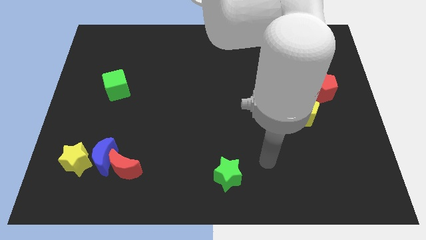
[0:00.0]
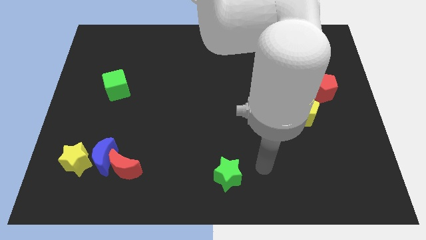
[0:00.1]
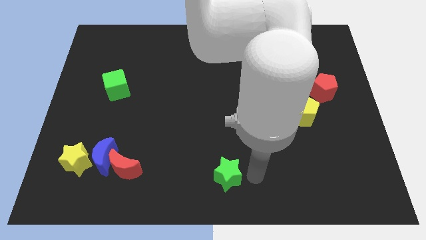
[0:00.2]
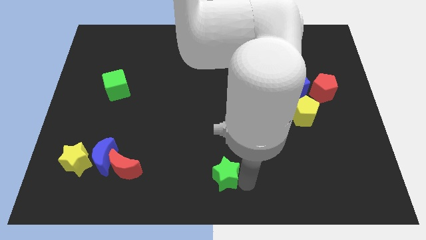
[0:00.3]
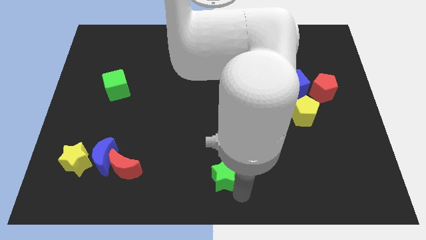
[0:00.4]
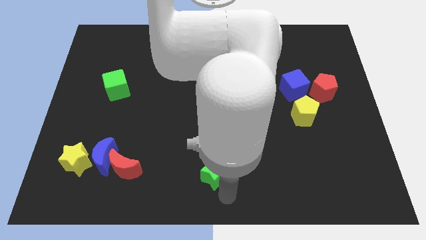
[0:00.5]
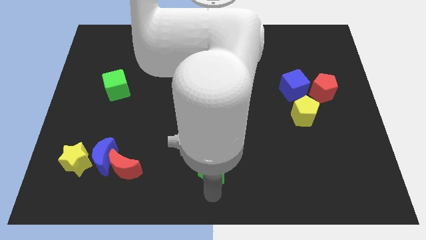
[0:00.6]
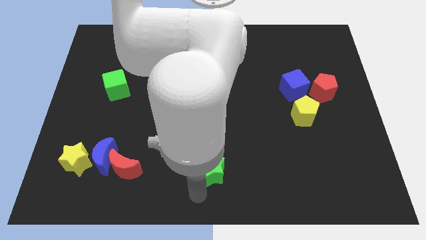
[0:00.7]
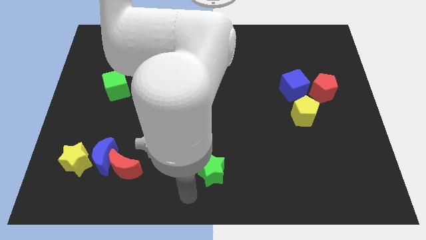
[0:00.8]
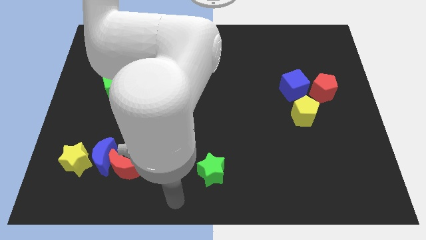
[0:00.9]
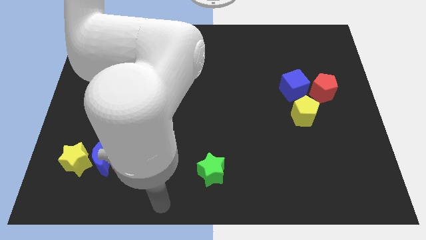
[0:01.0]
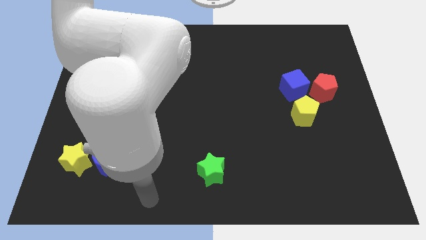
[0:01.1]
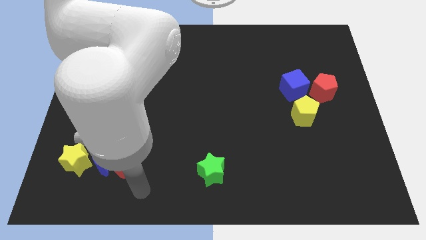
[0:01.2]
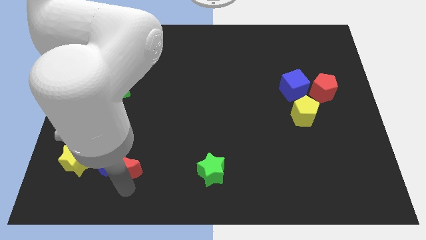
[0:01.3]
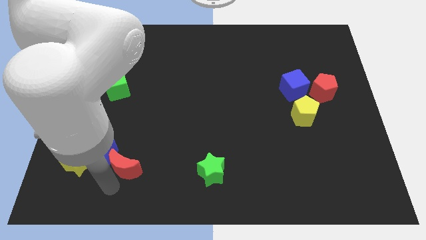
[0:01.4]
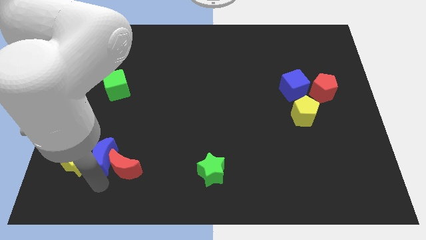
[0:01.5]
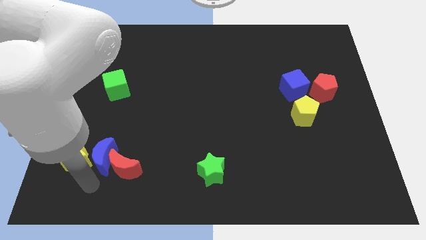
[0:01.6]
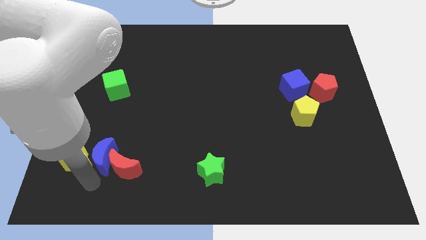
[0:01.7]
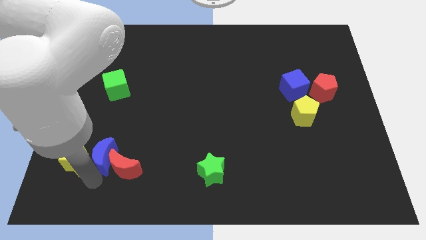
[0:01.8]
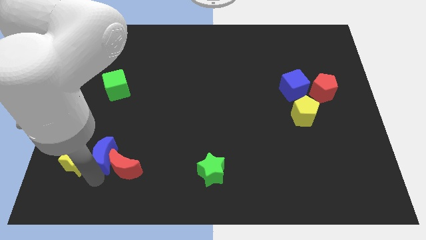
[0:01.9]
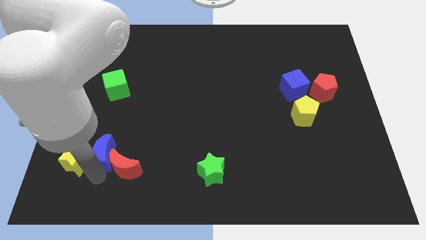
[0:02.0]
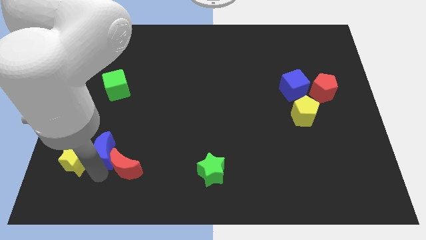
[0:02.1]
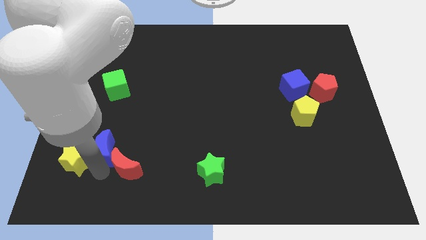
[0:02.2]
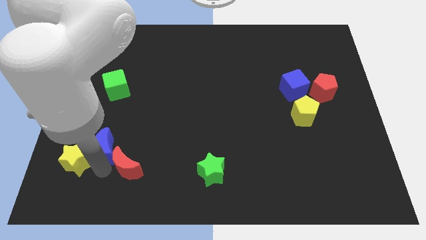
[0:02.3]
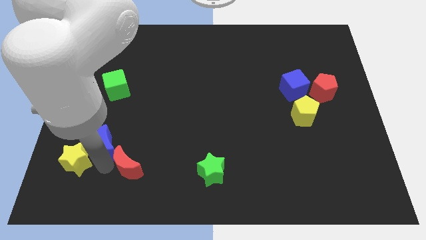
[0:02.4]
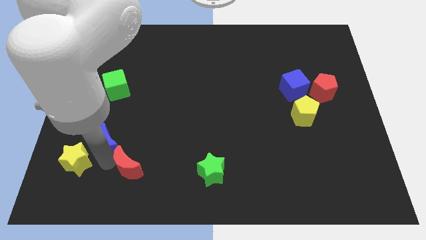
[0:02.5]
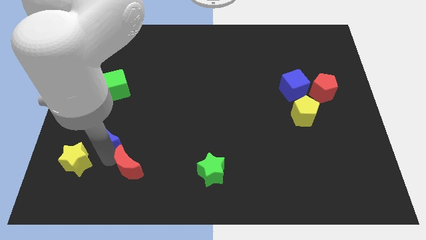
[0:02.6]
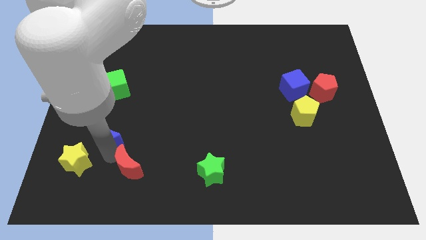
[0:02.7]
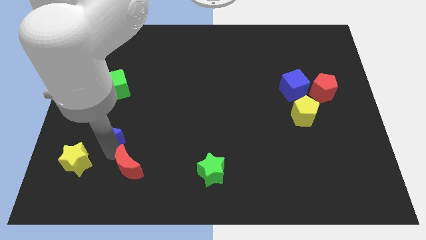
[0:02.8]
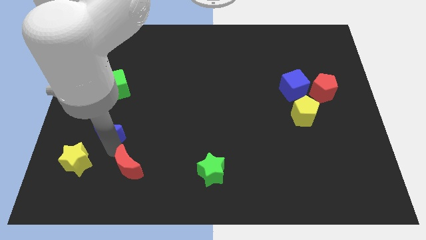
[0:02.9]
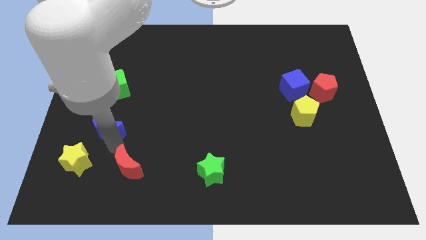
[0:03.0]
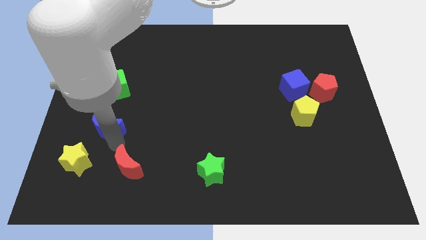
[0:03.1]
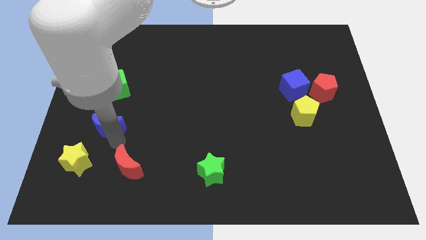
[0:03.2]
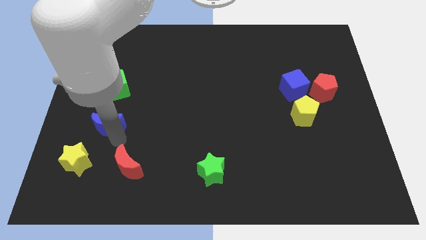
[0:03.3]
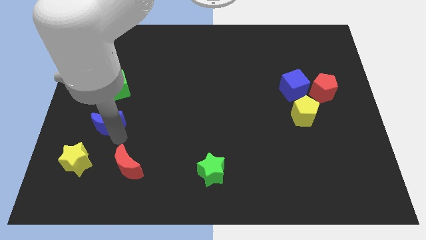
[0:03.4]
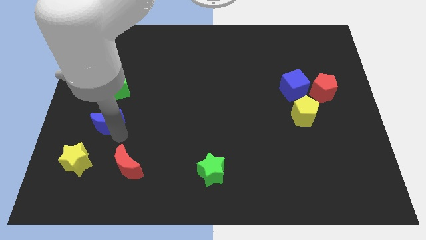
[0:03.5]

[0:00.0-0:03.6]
pull the blue moon apart from the red moon and yellow star

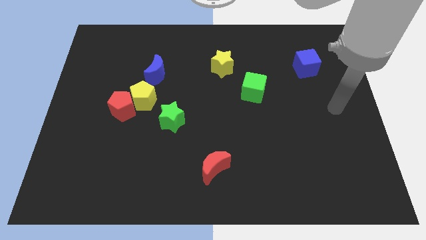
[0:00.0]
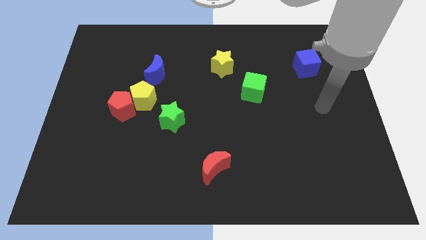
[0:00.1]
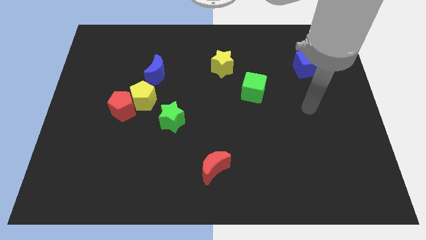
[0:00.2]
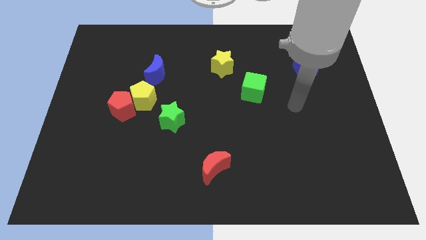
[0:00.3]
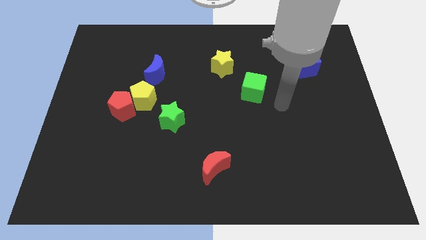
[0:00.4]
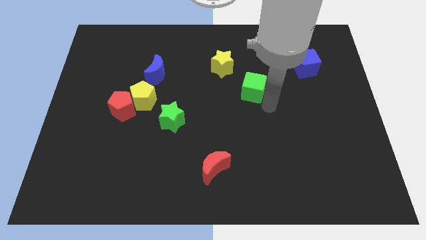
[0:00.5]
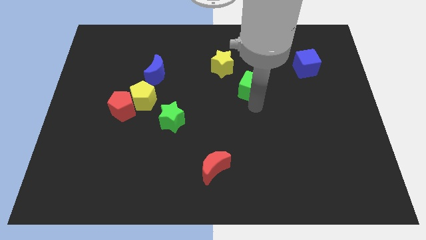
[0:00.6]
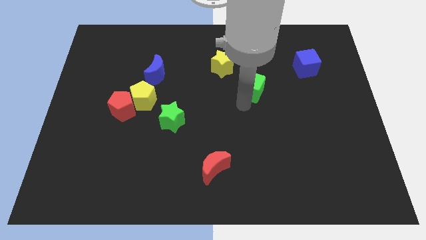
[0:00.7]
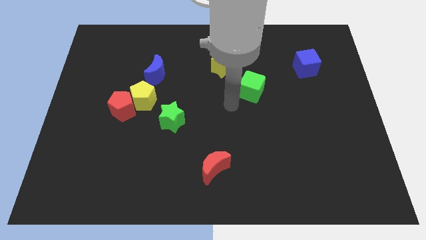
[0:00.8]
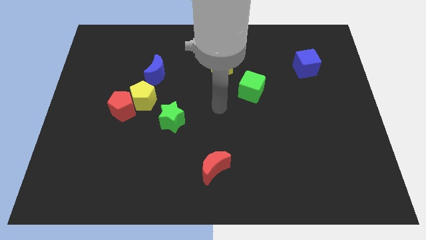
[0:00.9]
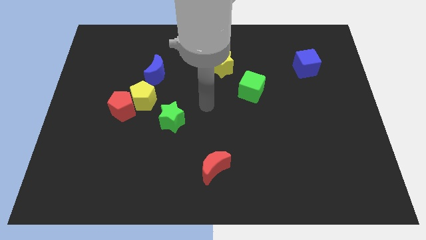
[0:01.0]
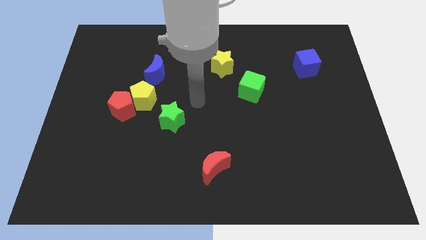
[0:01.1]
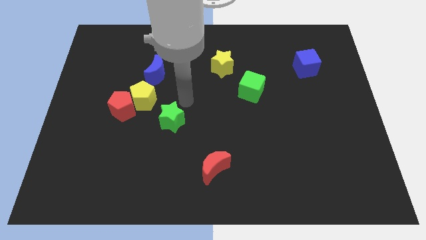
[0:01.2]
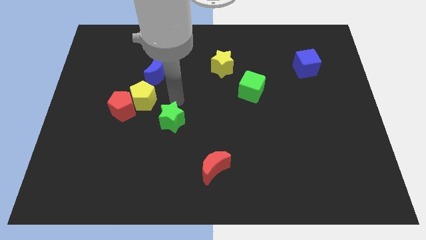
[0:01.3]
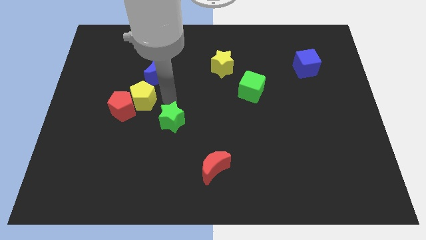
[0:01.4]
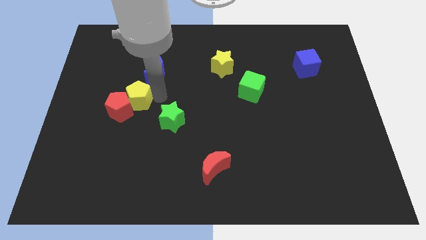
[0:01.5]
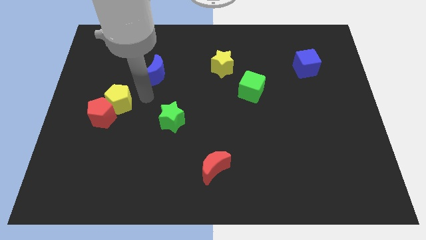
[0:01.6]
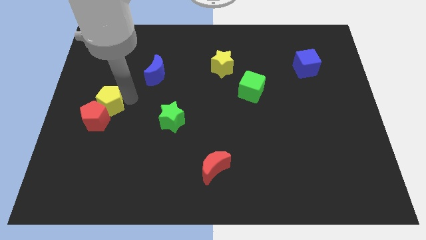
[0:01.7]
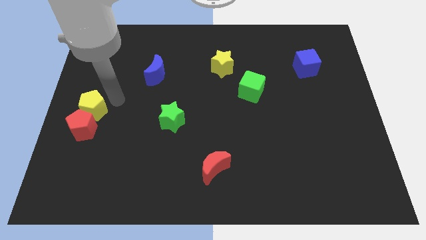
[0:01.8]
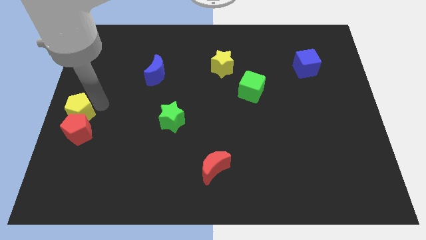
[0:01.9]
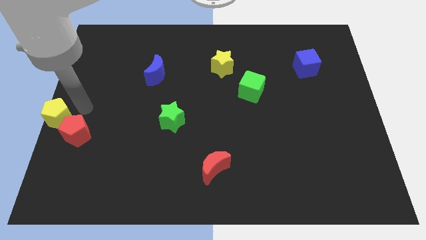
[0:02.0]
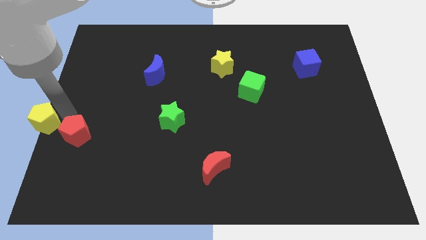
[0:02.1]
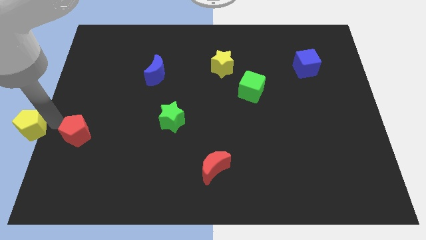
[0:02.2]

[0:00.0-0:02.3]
separate the red pentagon from the yellow pentagon

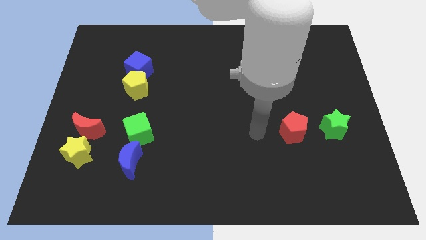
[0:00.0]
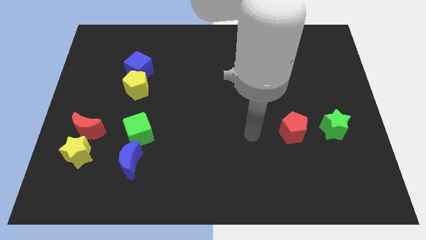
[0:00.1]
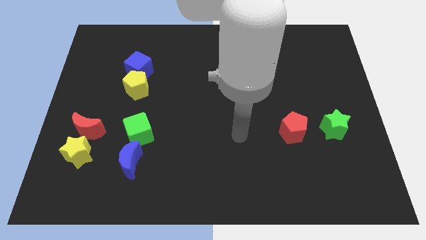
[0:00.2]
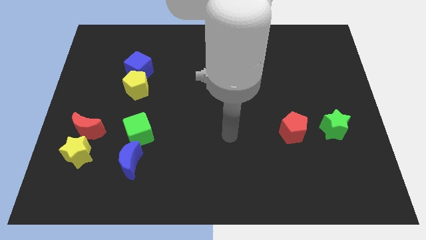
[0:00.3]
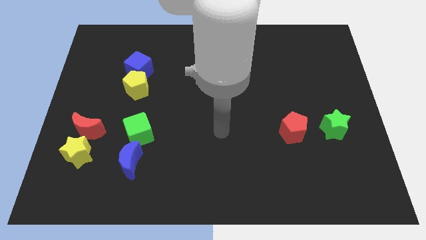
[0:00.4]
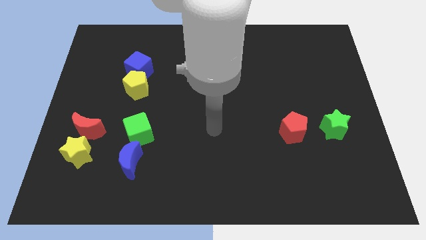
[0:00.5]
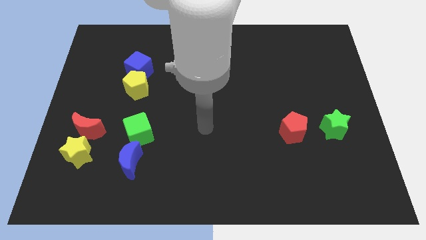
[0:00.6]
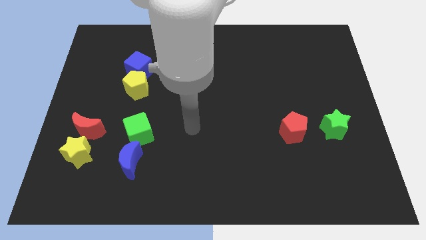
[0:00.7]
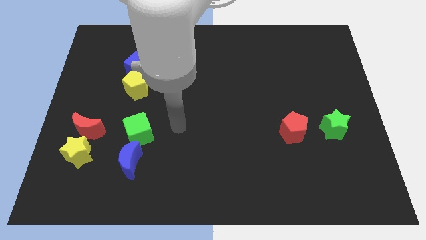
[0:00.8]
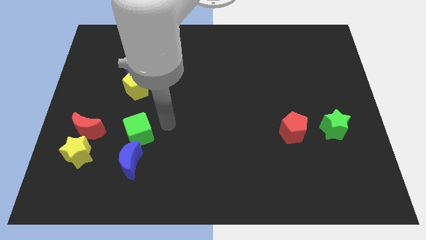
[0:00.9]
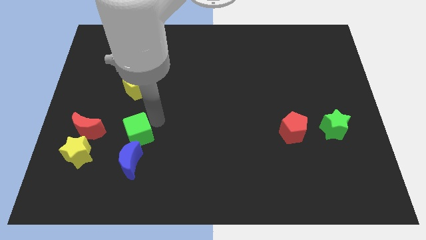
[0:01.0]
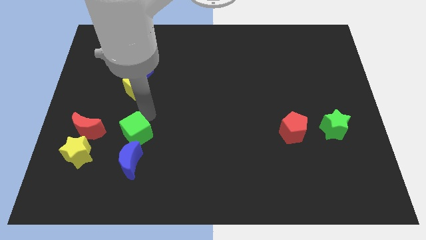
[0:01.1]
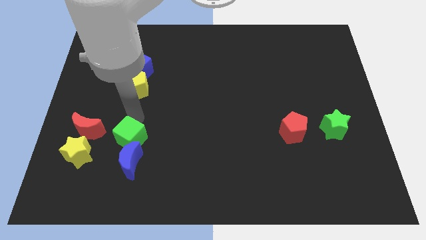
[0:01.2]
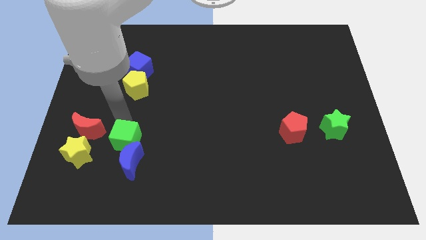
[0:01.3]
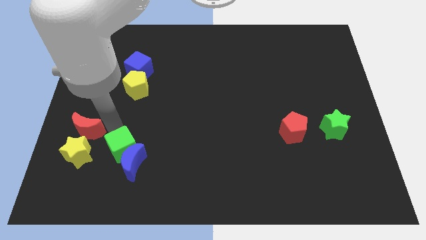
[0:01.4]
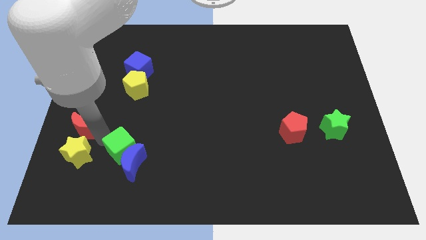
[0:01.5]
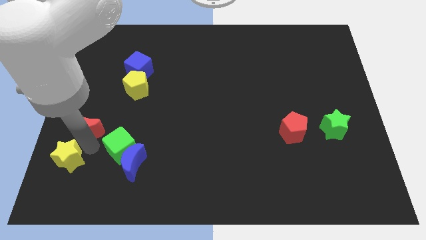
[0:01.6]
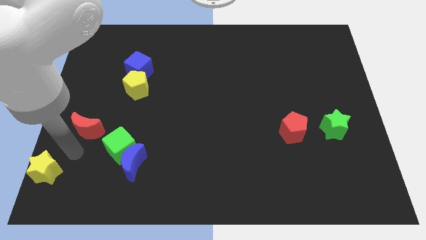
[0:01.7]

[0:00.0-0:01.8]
move the red moon away from the yellow star

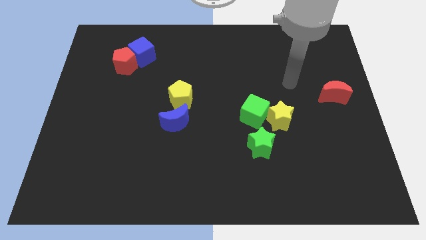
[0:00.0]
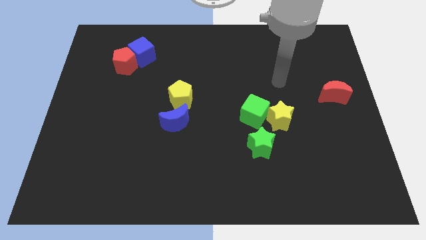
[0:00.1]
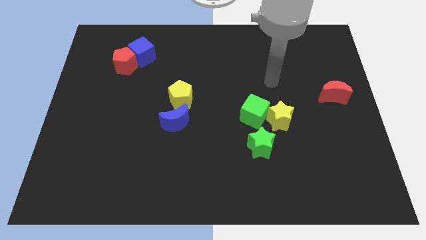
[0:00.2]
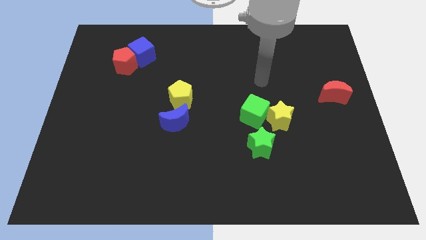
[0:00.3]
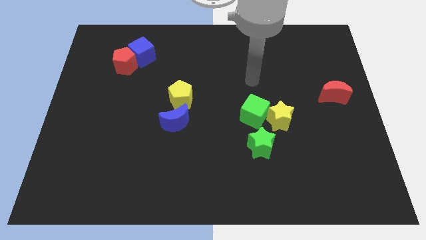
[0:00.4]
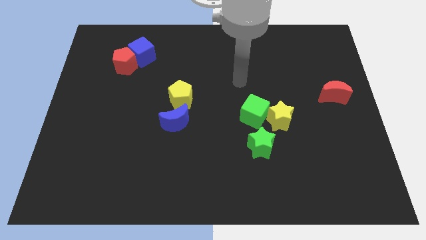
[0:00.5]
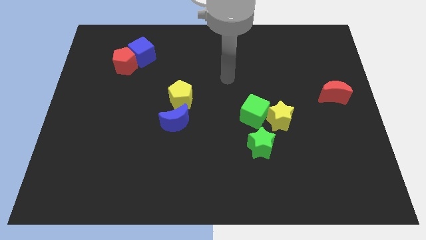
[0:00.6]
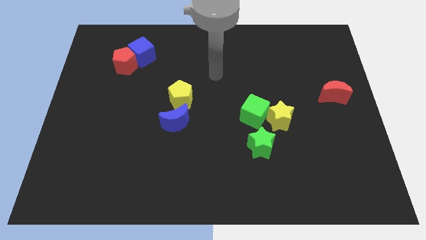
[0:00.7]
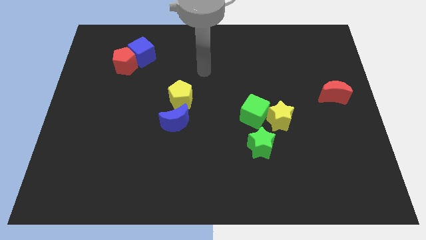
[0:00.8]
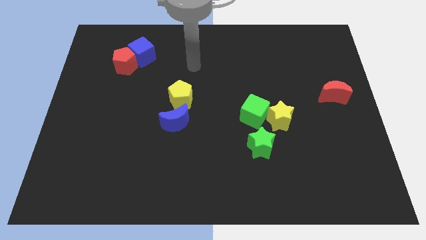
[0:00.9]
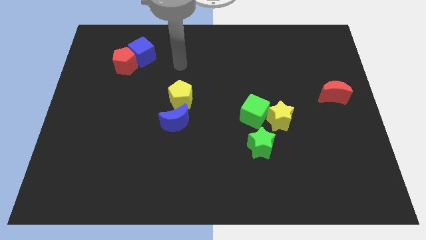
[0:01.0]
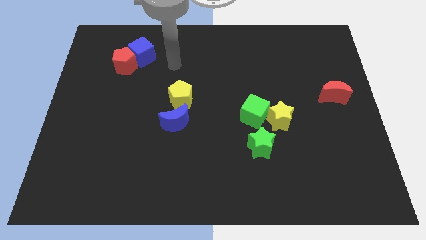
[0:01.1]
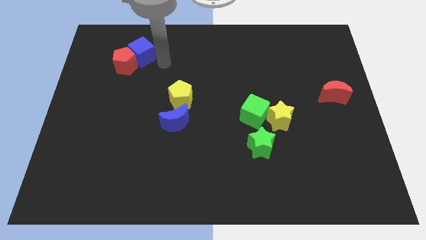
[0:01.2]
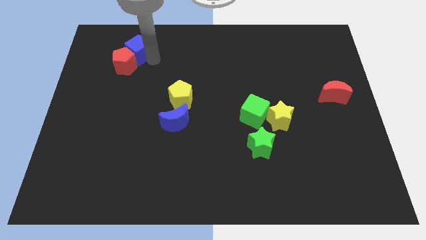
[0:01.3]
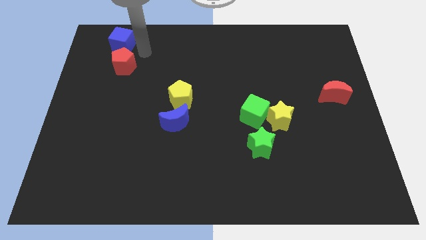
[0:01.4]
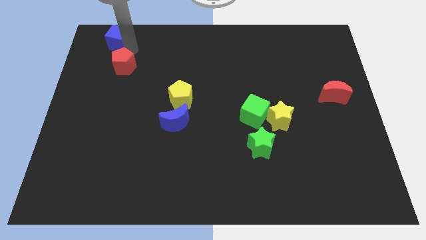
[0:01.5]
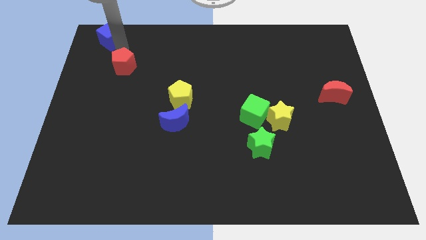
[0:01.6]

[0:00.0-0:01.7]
pull the red pentagon apart from the blue cube
